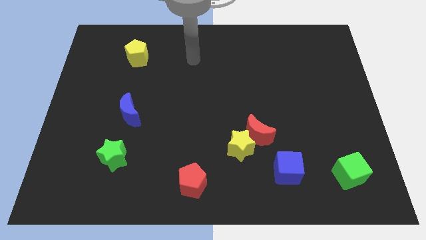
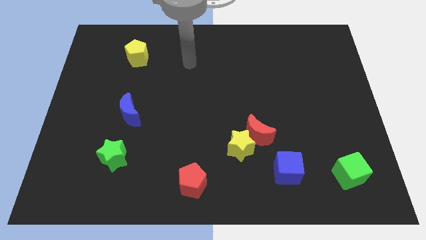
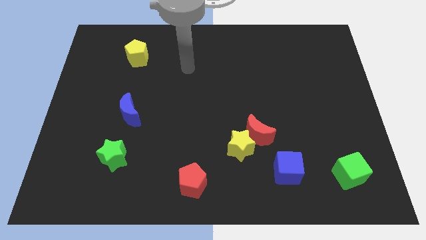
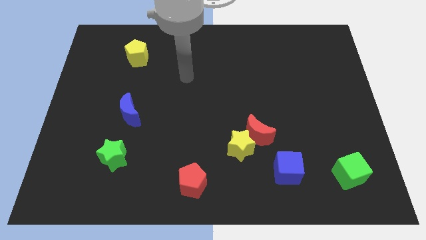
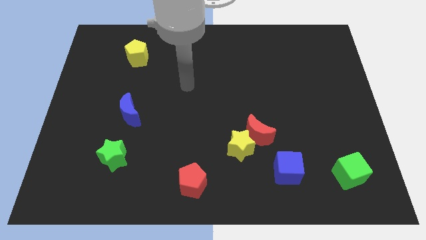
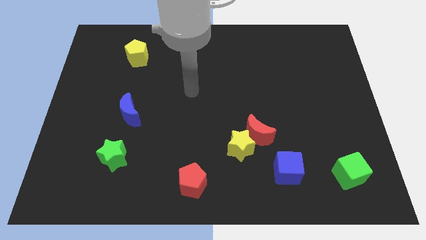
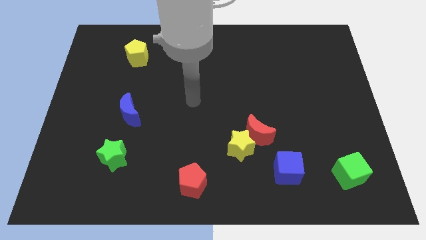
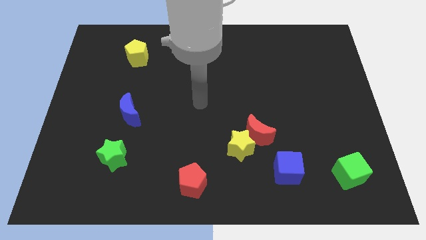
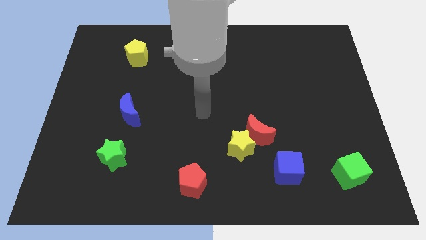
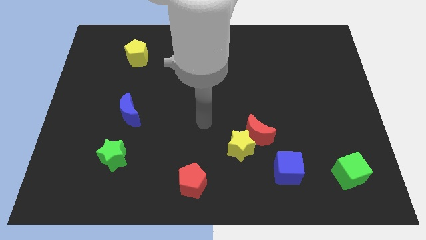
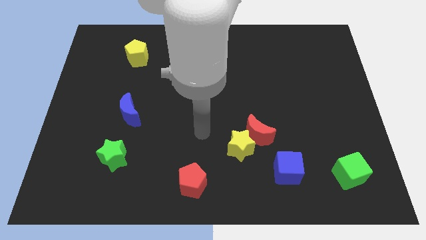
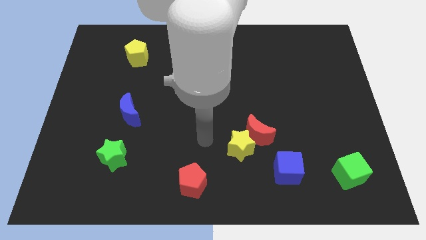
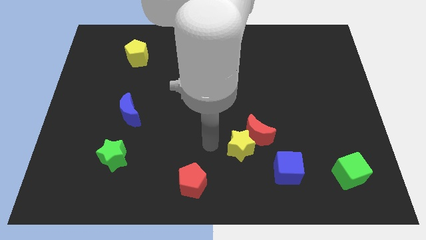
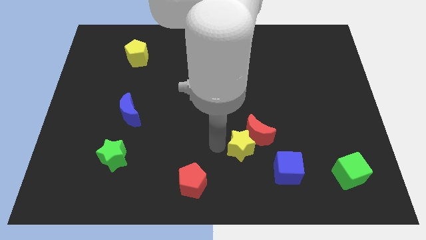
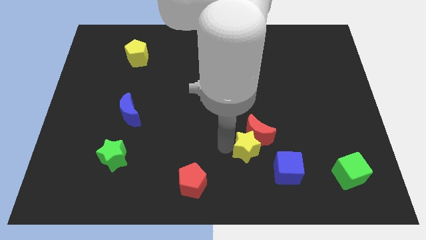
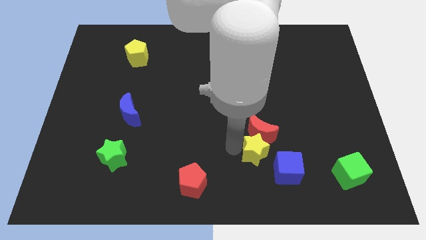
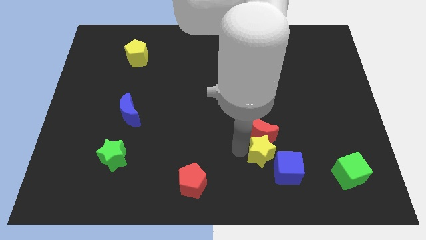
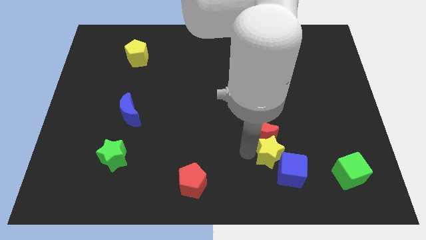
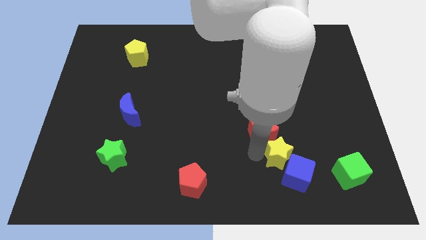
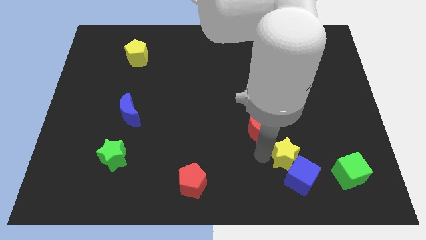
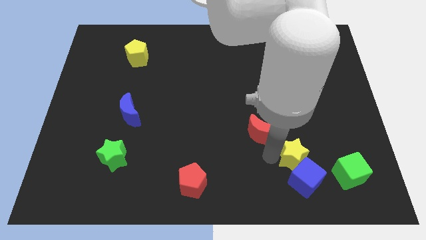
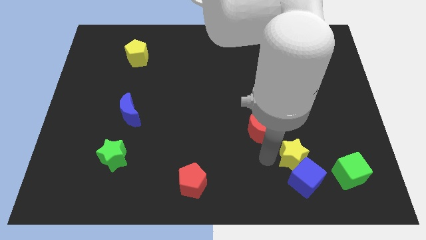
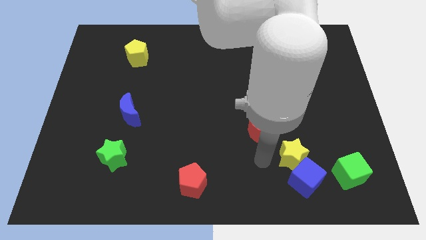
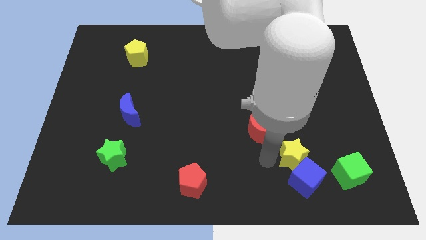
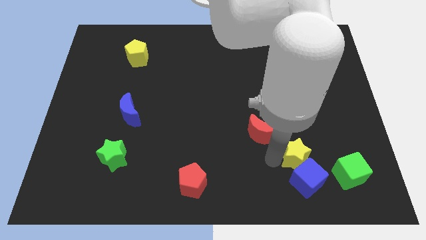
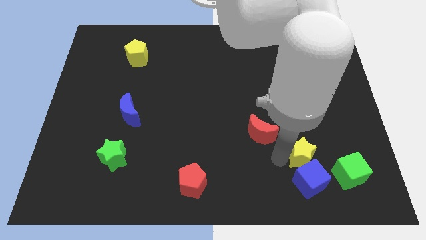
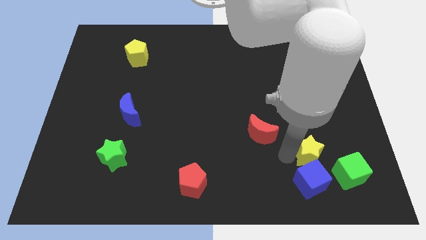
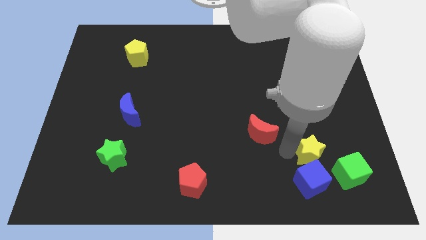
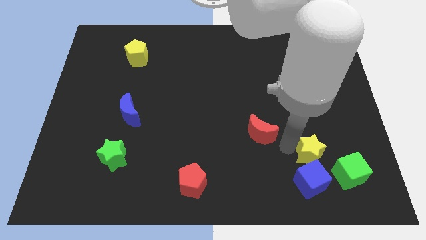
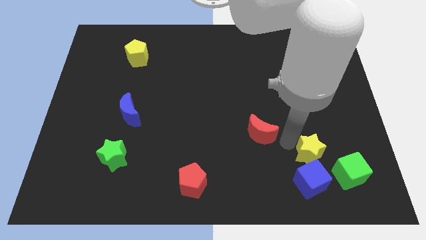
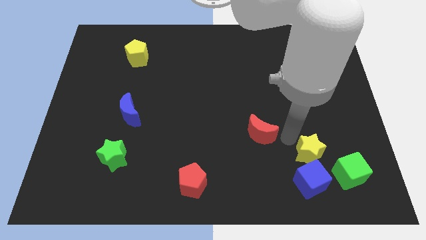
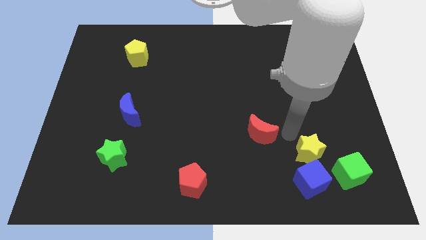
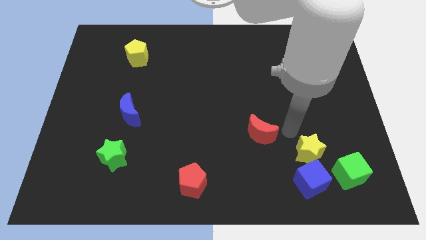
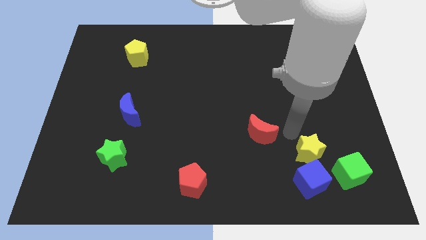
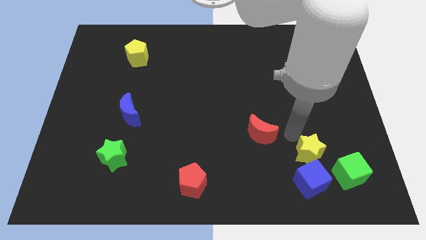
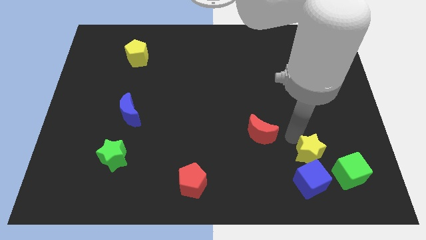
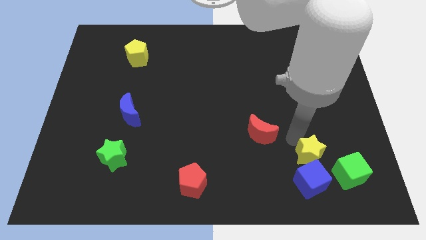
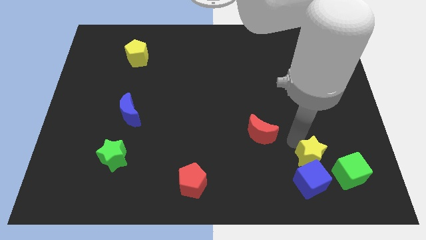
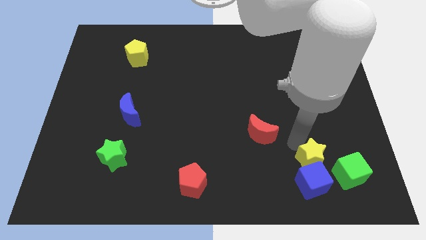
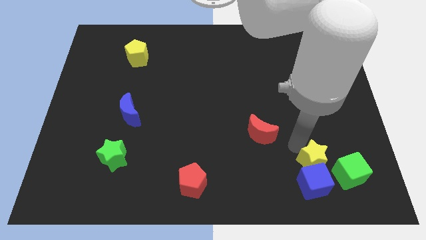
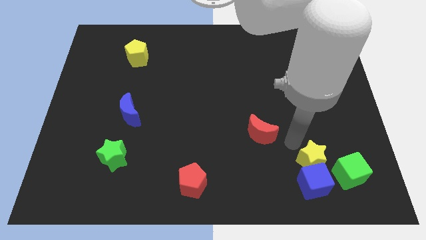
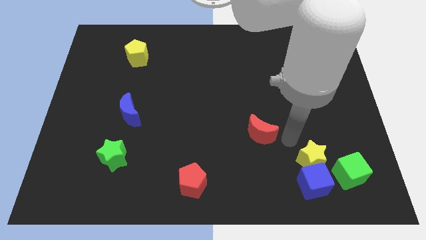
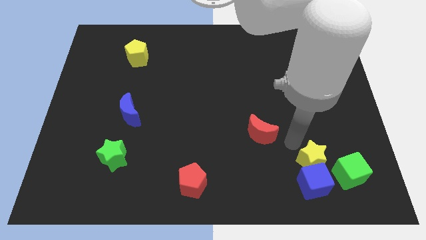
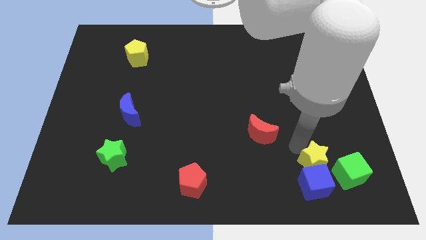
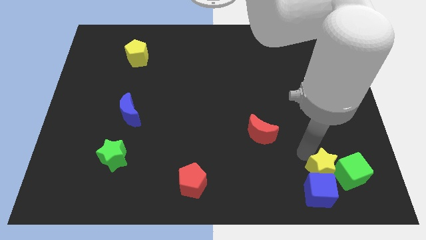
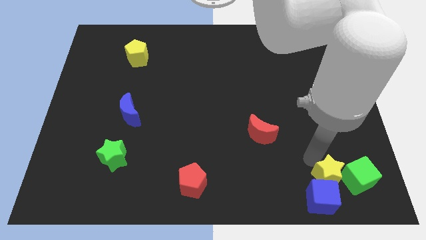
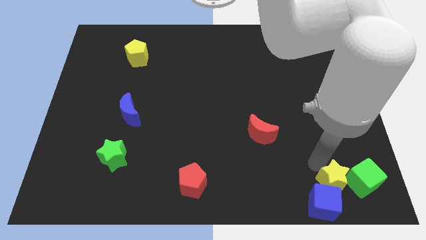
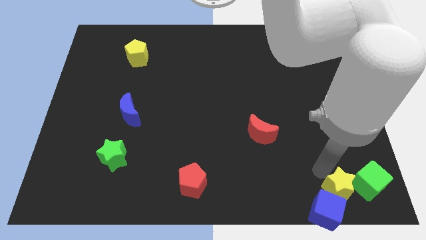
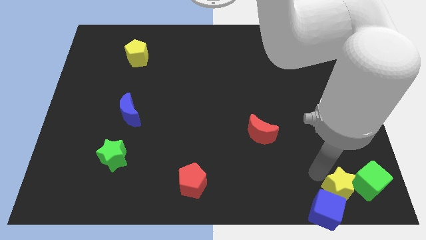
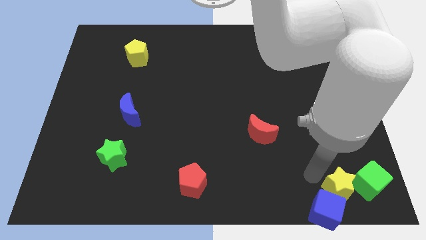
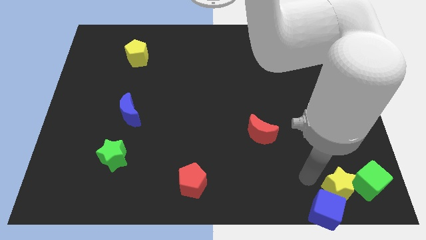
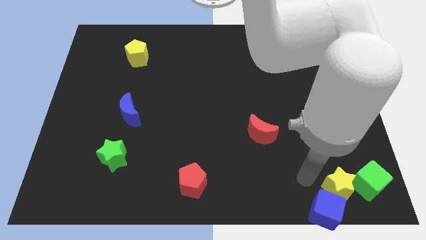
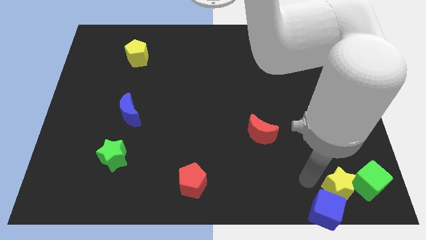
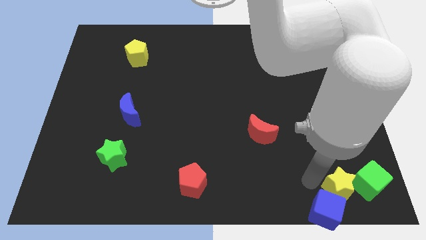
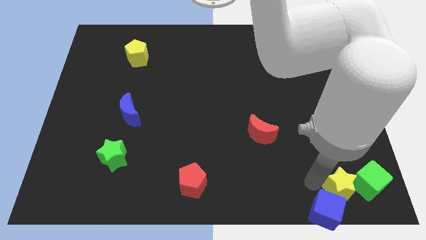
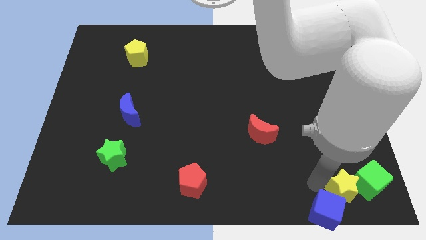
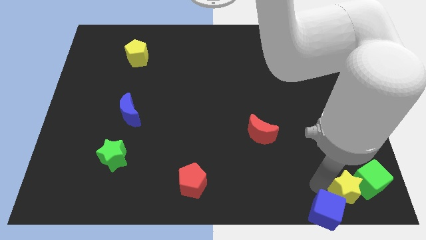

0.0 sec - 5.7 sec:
move the yellow star to the bottom right corner
